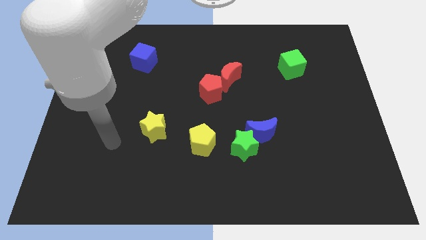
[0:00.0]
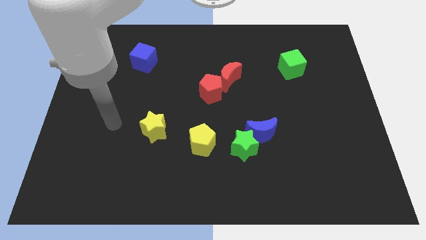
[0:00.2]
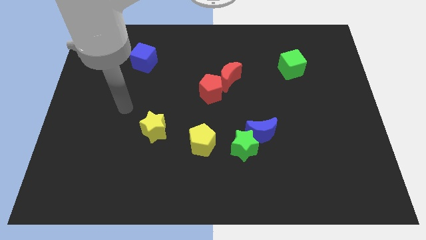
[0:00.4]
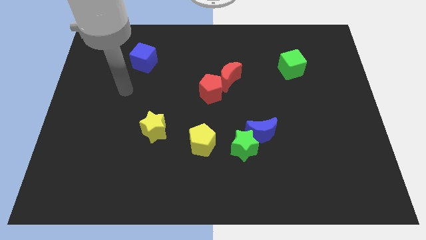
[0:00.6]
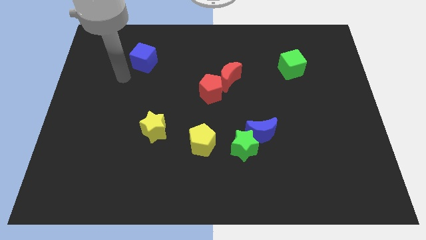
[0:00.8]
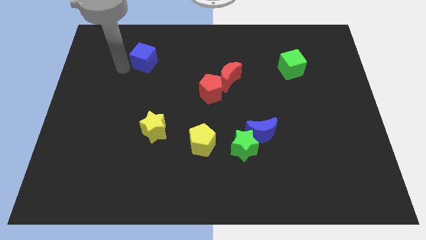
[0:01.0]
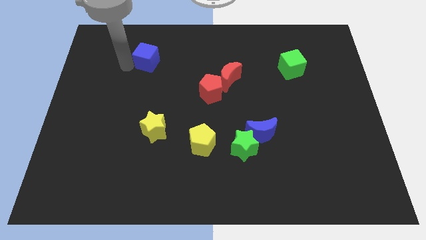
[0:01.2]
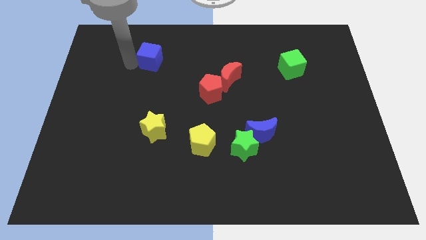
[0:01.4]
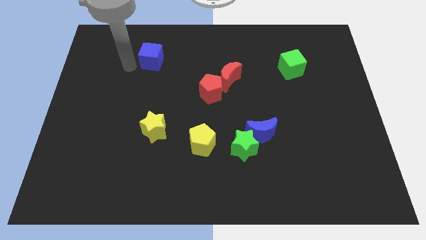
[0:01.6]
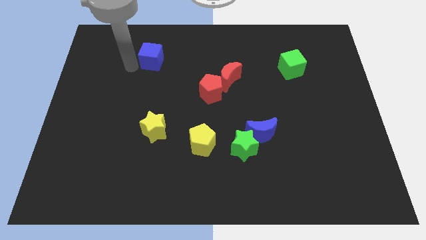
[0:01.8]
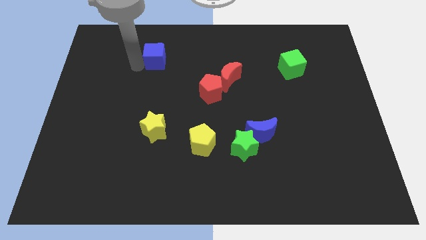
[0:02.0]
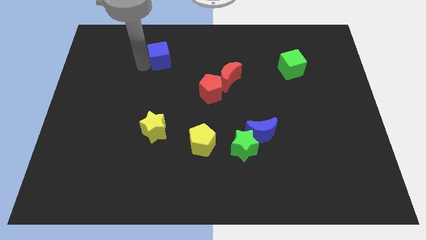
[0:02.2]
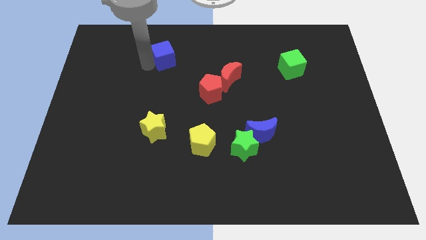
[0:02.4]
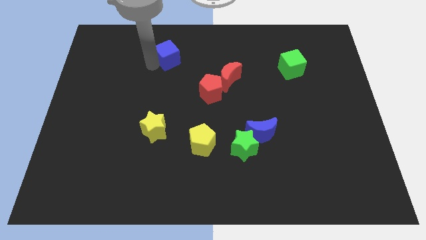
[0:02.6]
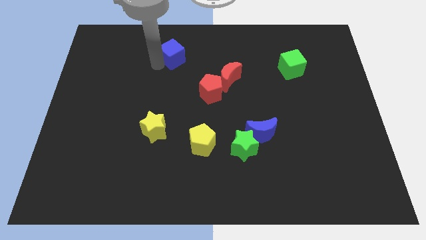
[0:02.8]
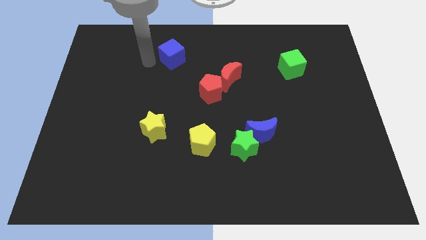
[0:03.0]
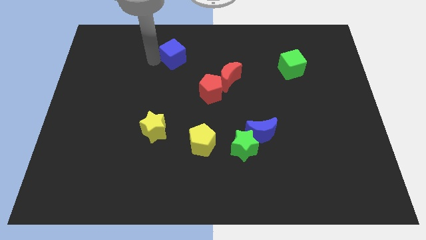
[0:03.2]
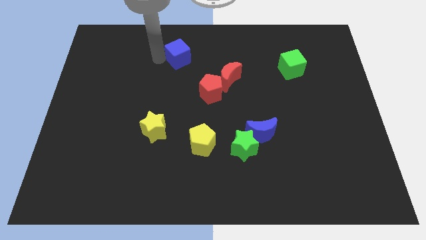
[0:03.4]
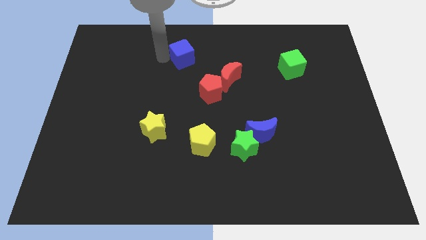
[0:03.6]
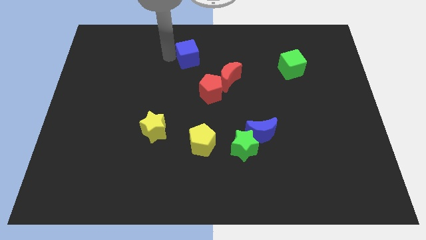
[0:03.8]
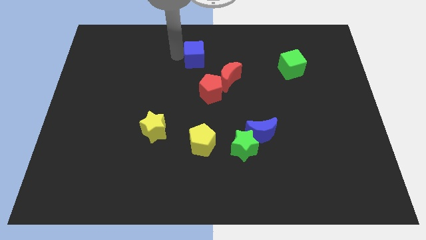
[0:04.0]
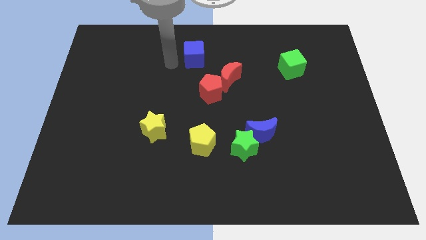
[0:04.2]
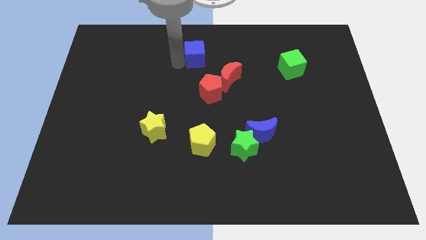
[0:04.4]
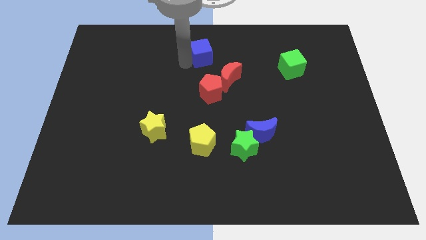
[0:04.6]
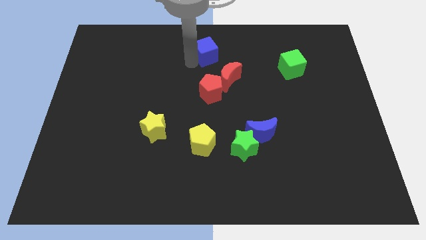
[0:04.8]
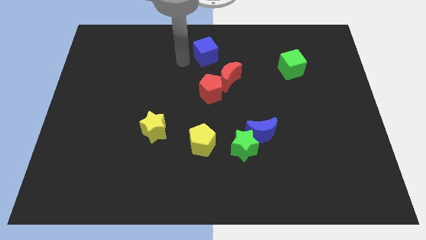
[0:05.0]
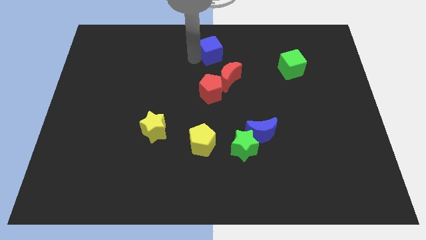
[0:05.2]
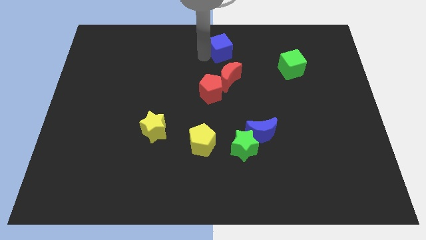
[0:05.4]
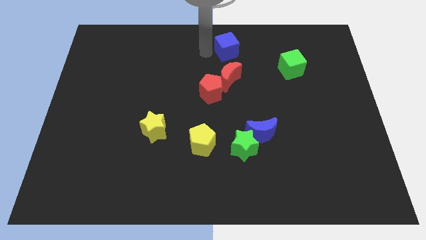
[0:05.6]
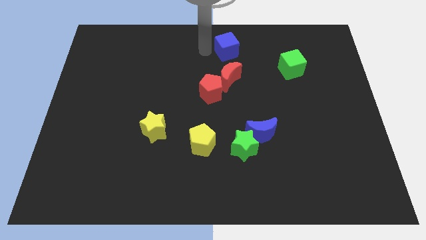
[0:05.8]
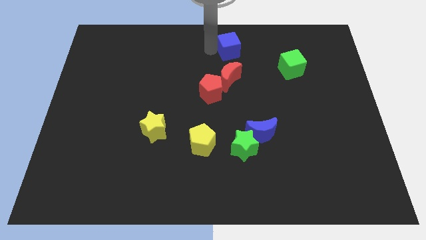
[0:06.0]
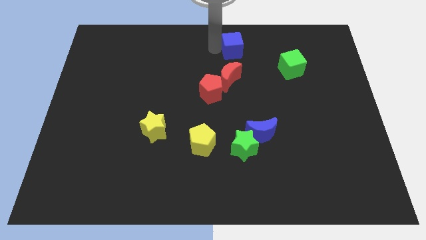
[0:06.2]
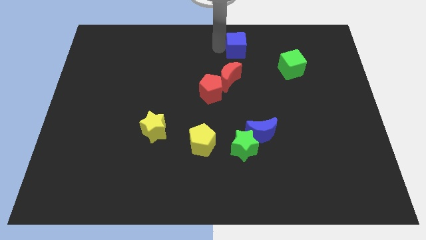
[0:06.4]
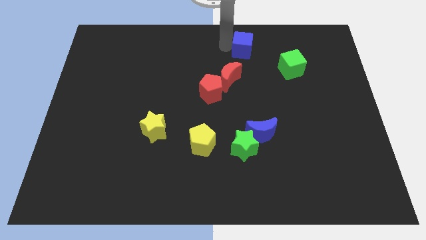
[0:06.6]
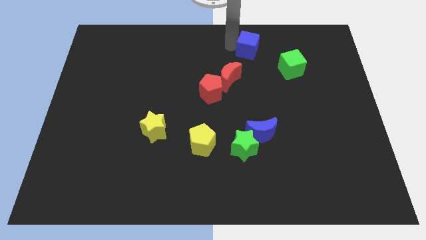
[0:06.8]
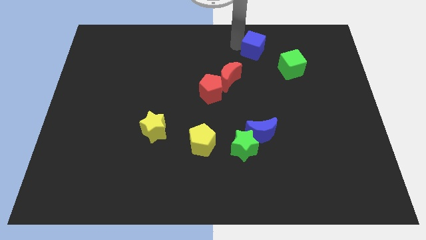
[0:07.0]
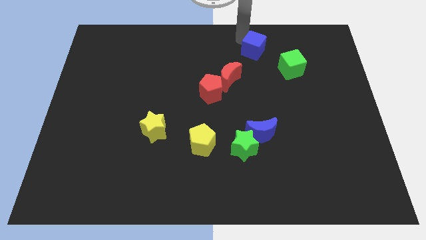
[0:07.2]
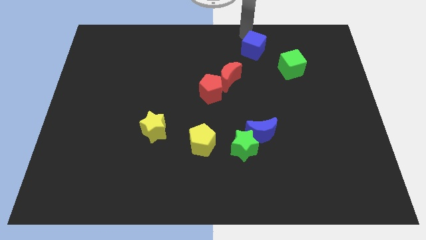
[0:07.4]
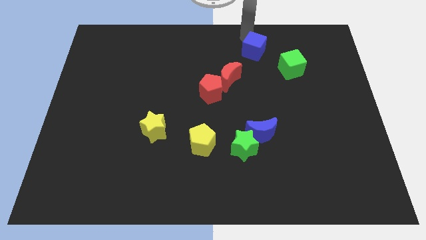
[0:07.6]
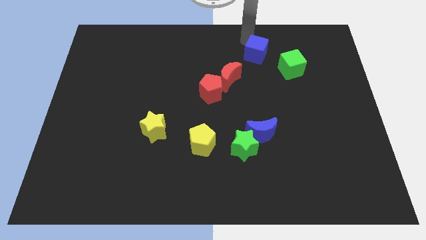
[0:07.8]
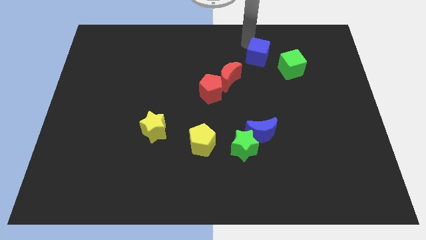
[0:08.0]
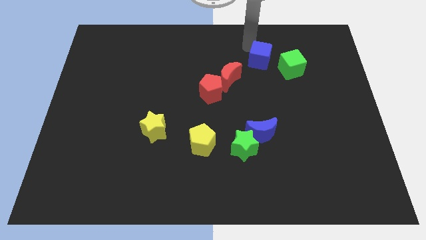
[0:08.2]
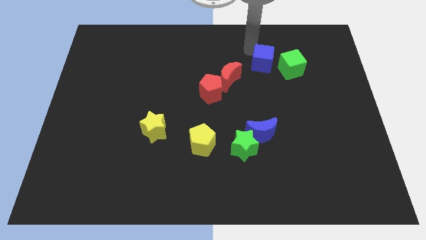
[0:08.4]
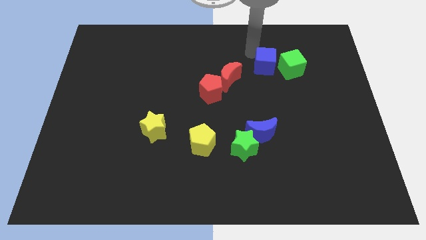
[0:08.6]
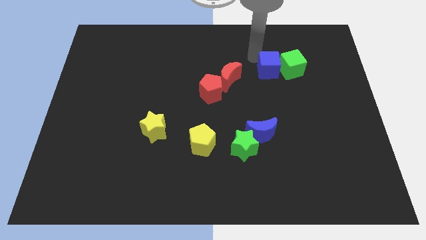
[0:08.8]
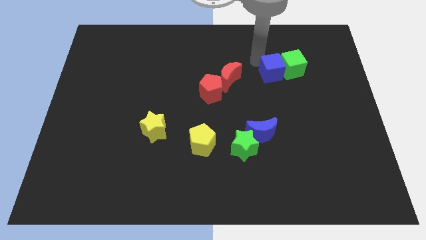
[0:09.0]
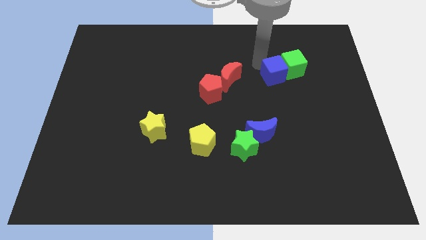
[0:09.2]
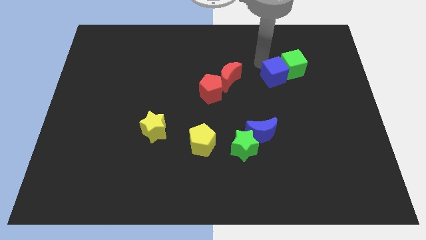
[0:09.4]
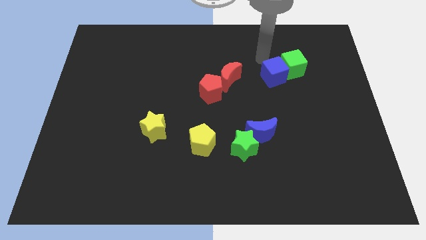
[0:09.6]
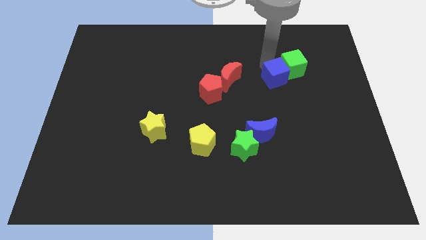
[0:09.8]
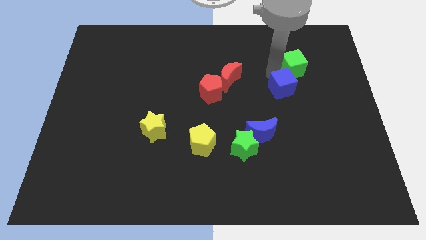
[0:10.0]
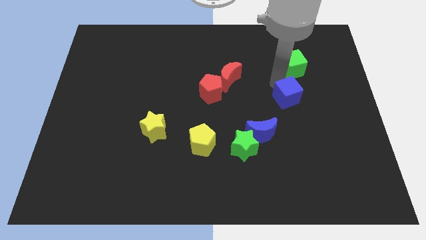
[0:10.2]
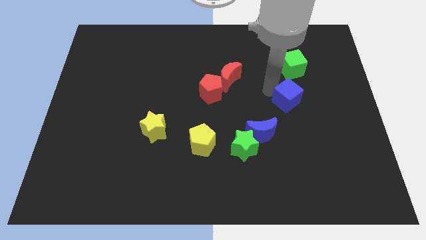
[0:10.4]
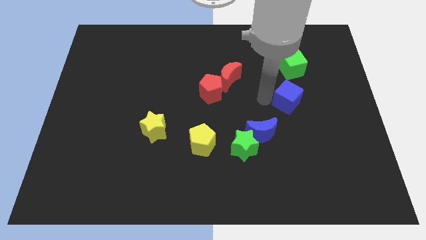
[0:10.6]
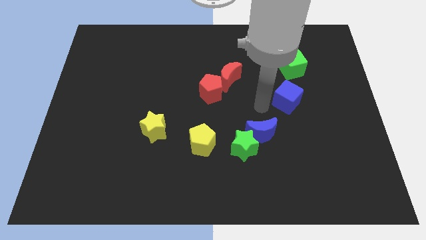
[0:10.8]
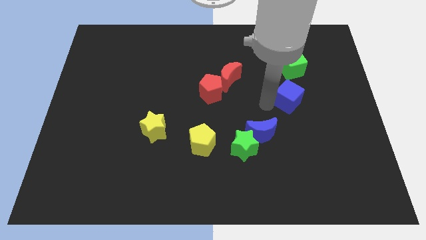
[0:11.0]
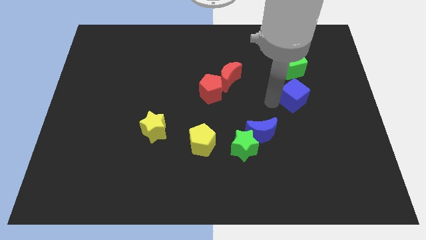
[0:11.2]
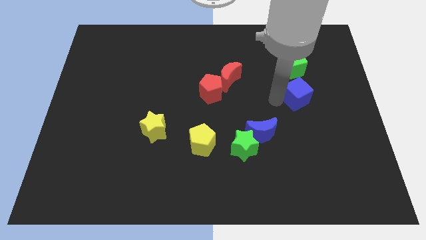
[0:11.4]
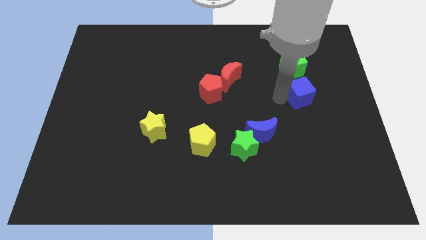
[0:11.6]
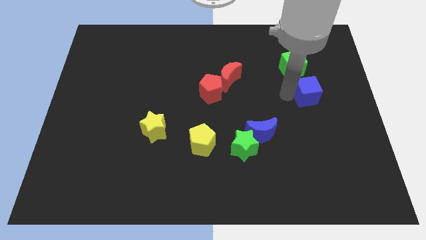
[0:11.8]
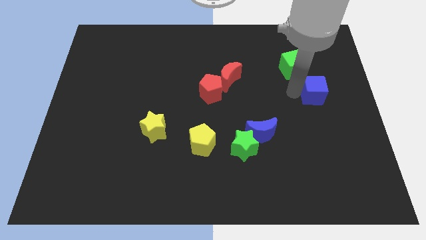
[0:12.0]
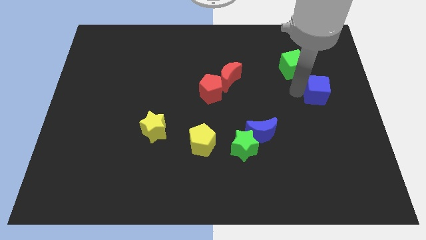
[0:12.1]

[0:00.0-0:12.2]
move the blue cube to the right side of the board

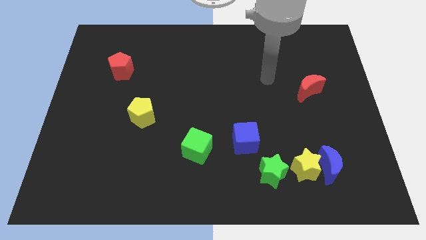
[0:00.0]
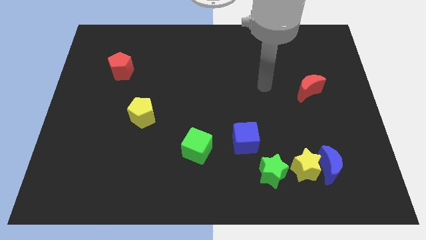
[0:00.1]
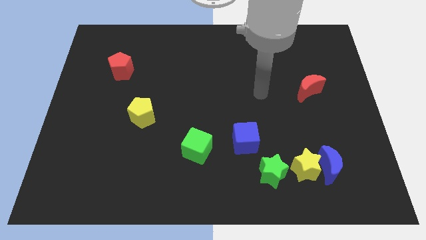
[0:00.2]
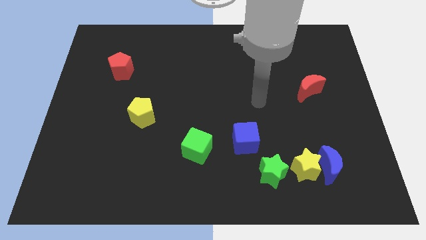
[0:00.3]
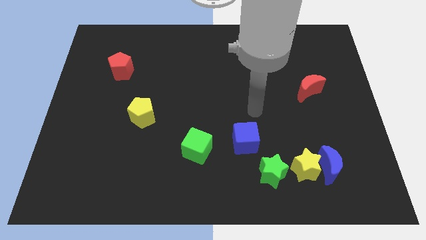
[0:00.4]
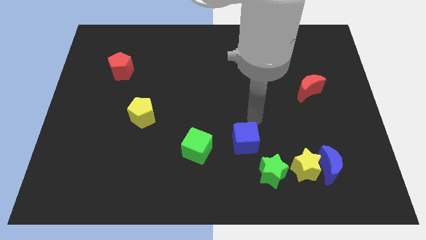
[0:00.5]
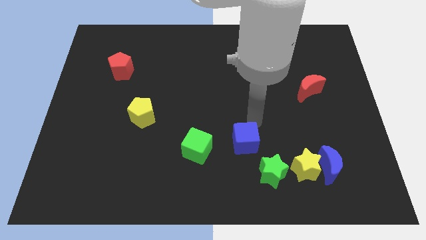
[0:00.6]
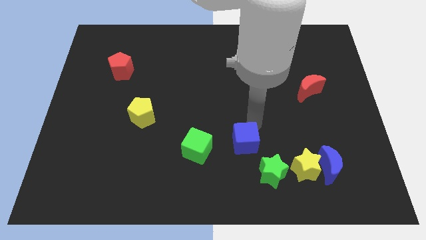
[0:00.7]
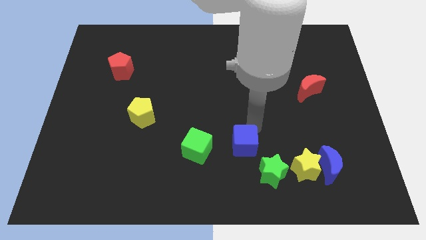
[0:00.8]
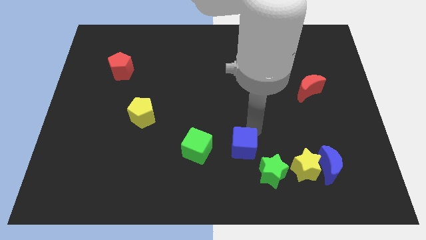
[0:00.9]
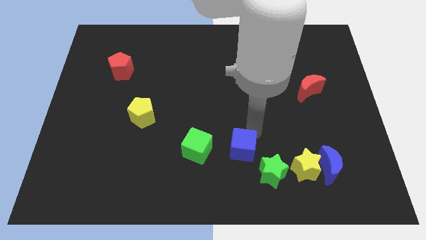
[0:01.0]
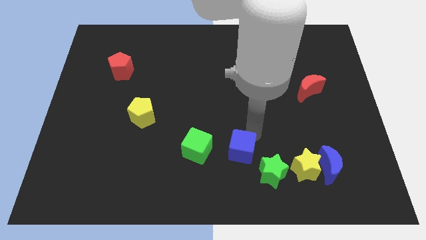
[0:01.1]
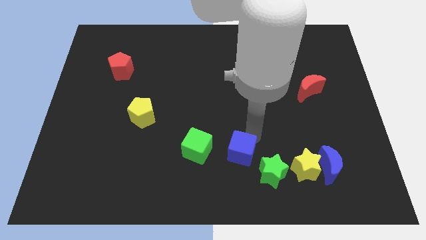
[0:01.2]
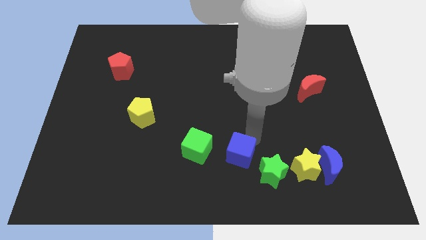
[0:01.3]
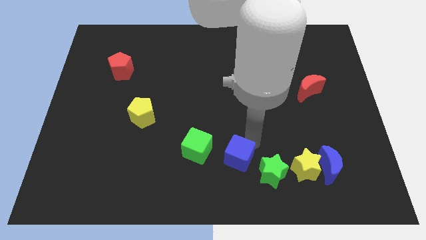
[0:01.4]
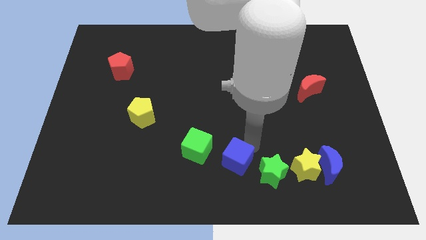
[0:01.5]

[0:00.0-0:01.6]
put the blue cube to the bottom side
